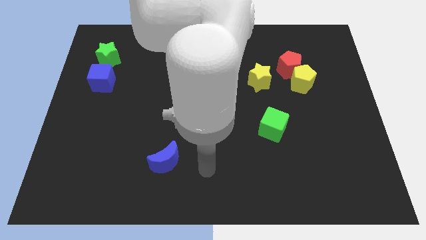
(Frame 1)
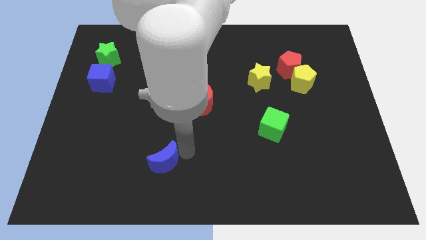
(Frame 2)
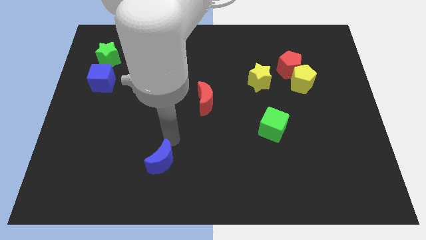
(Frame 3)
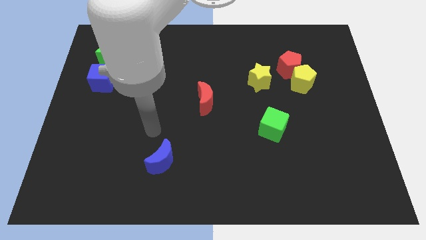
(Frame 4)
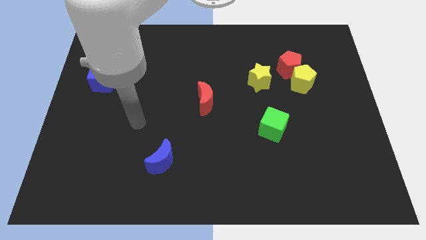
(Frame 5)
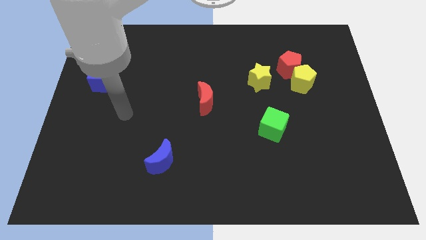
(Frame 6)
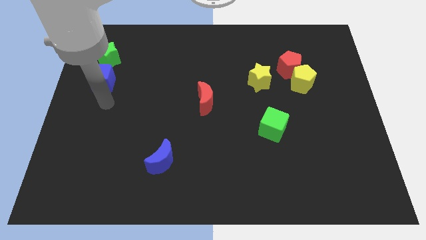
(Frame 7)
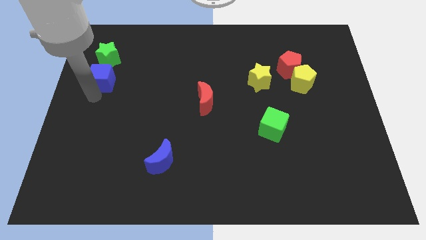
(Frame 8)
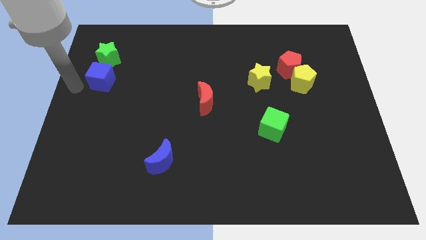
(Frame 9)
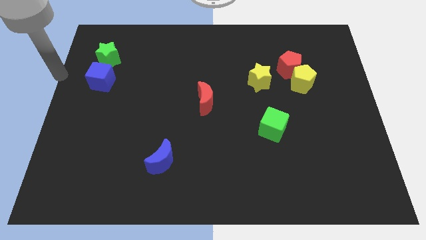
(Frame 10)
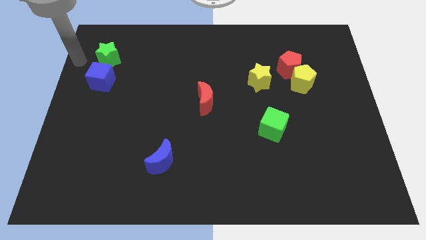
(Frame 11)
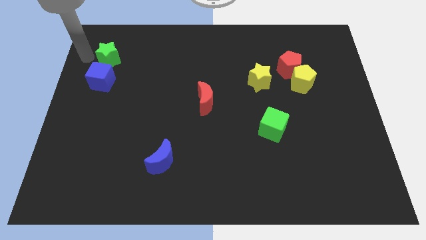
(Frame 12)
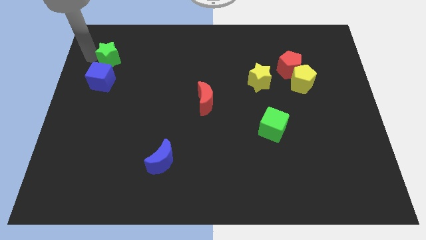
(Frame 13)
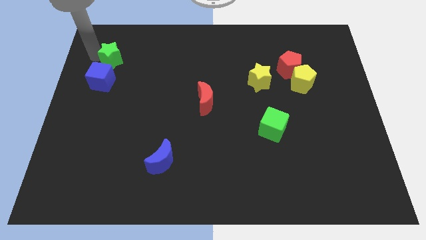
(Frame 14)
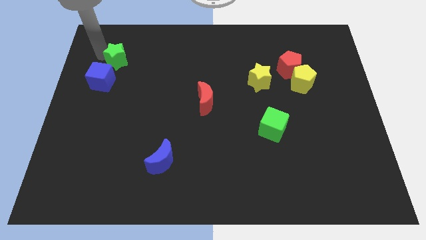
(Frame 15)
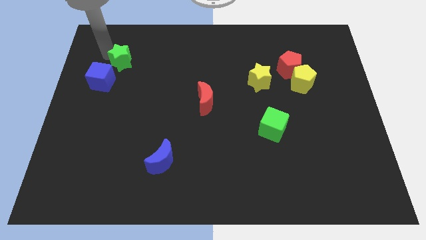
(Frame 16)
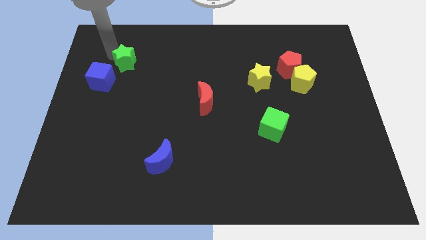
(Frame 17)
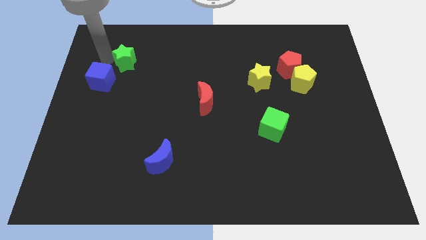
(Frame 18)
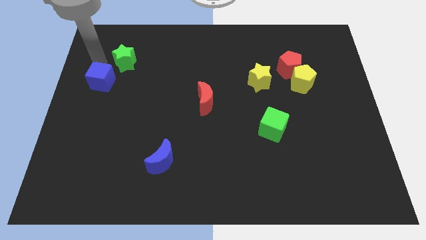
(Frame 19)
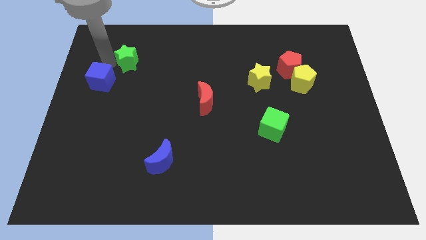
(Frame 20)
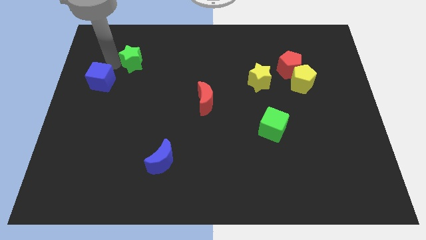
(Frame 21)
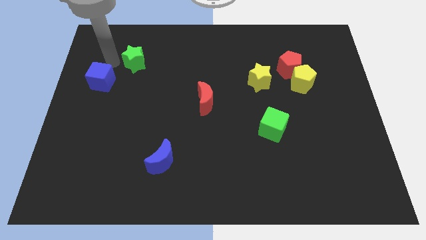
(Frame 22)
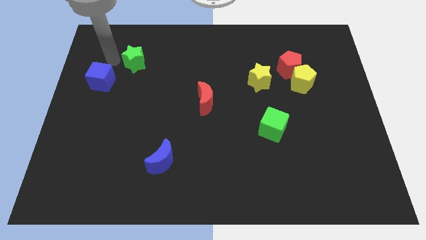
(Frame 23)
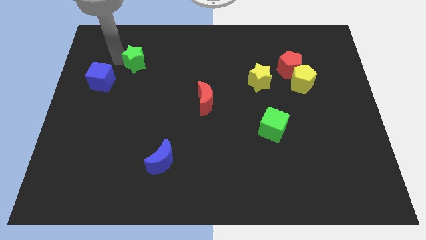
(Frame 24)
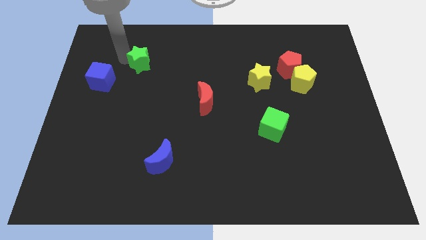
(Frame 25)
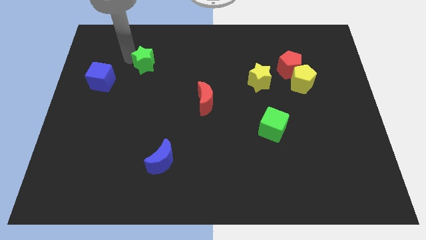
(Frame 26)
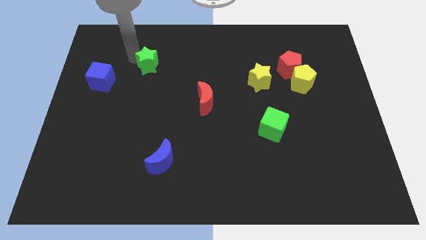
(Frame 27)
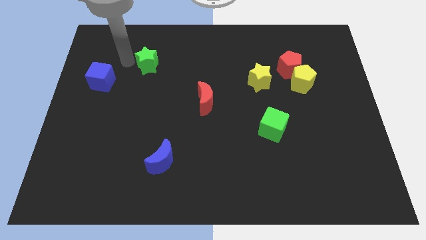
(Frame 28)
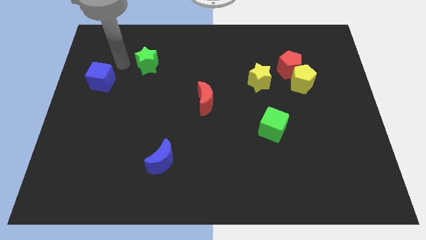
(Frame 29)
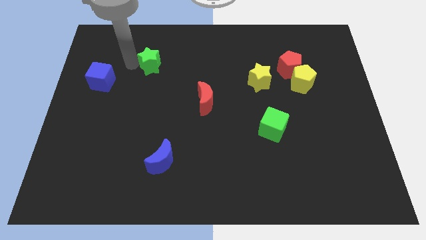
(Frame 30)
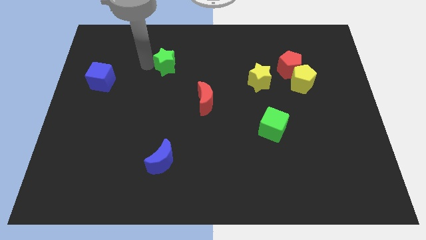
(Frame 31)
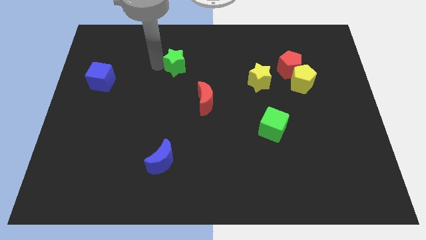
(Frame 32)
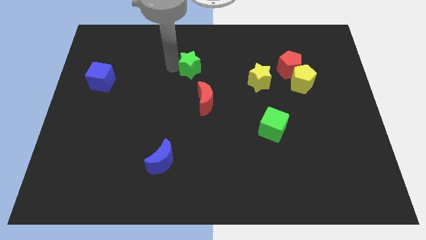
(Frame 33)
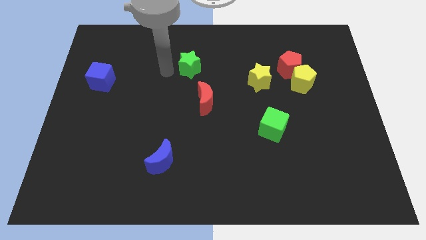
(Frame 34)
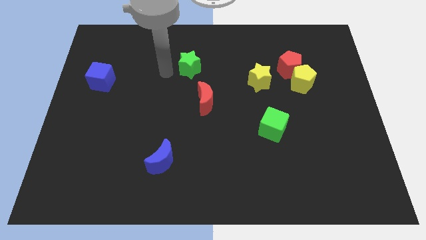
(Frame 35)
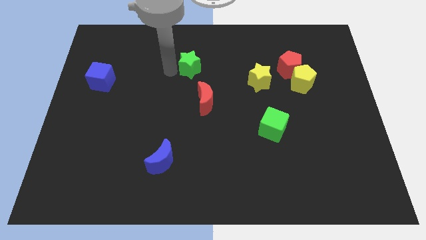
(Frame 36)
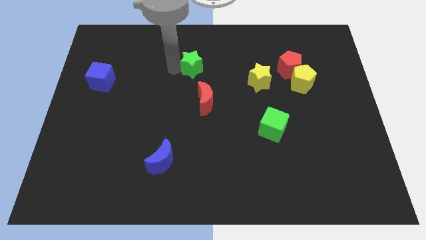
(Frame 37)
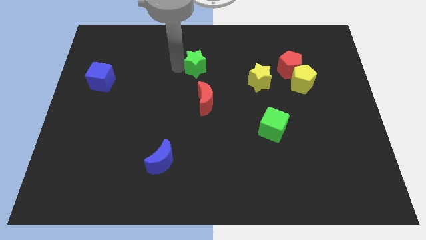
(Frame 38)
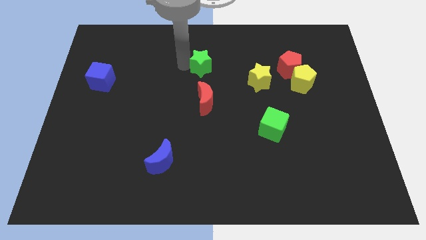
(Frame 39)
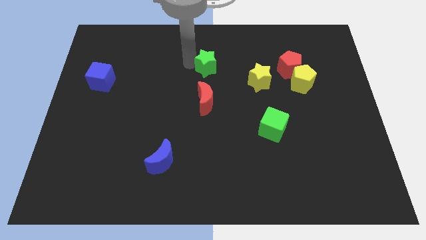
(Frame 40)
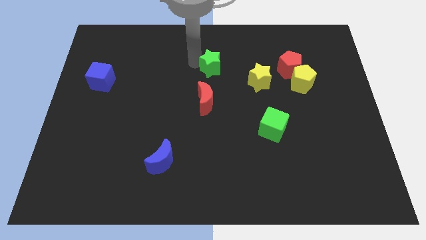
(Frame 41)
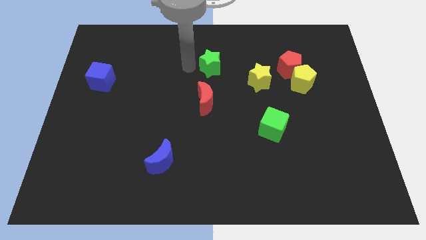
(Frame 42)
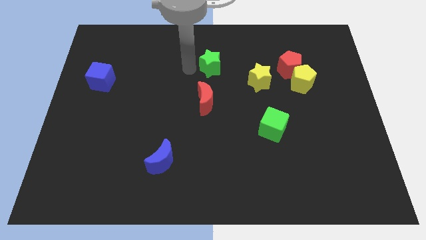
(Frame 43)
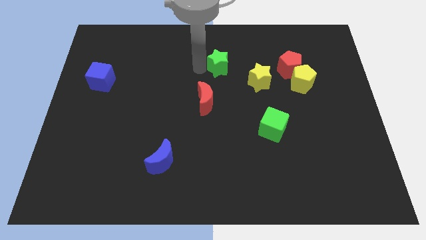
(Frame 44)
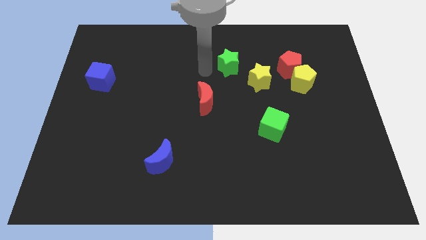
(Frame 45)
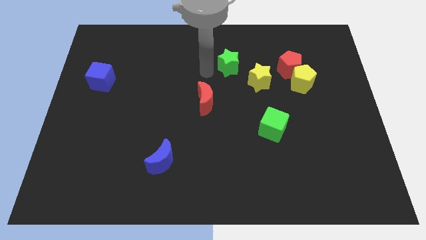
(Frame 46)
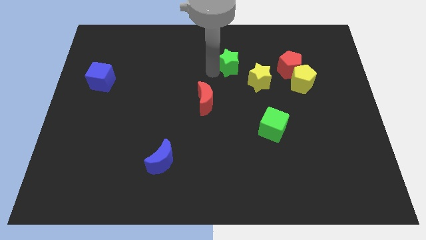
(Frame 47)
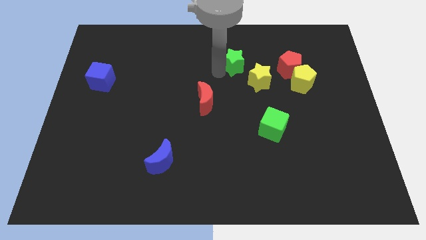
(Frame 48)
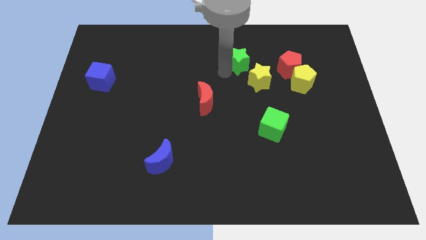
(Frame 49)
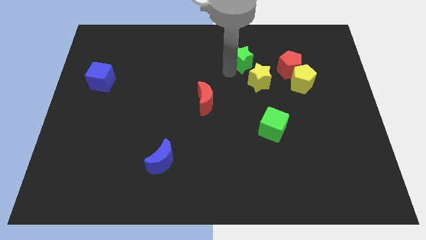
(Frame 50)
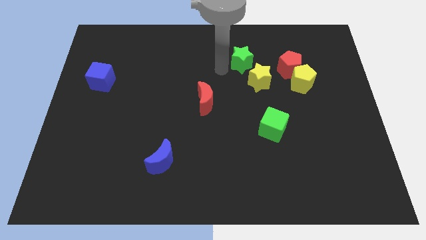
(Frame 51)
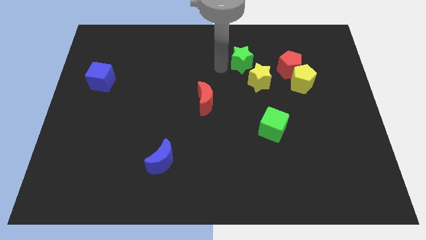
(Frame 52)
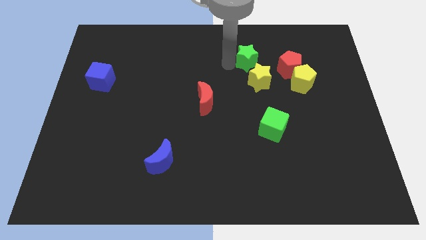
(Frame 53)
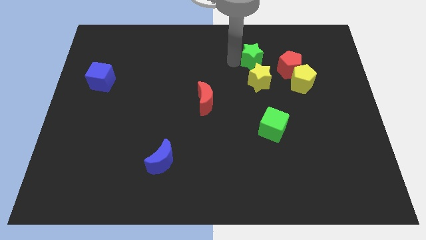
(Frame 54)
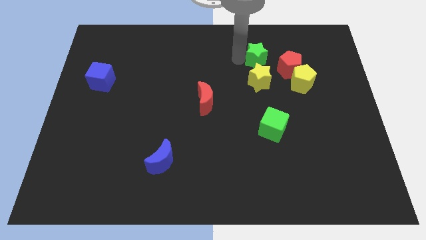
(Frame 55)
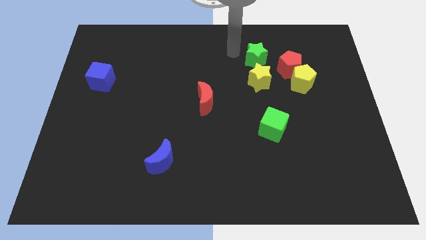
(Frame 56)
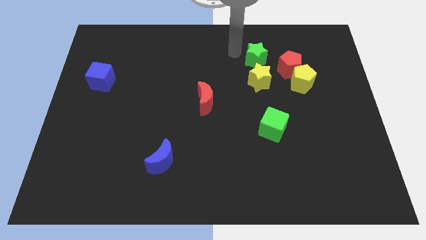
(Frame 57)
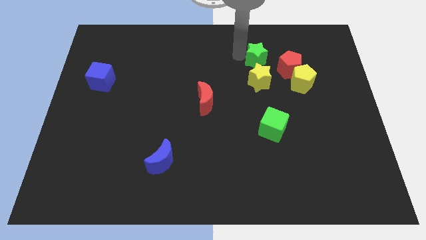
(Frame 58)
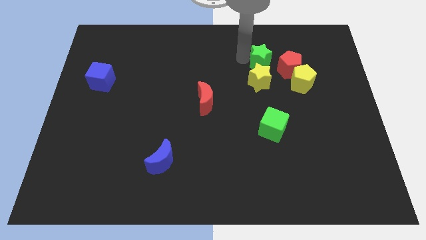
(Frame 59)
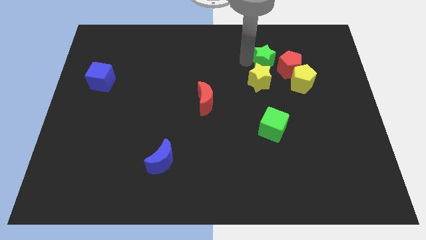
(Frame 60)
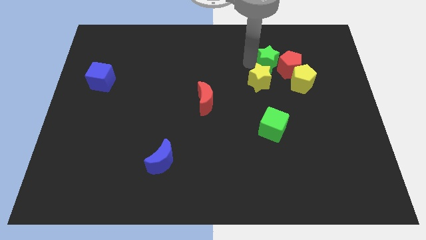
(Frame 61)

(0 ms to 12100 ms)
put the green star close to the red pentagon
